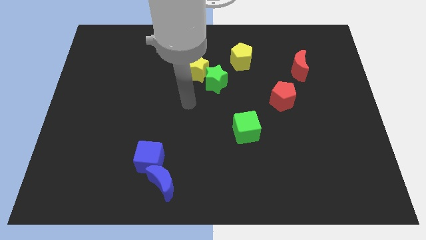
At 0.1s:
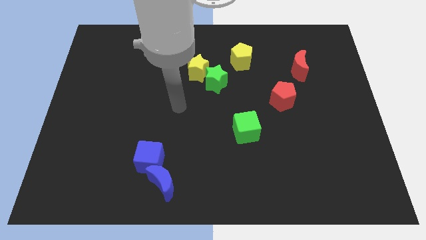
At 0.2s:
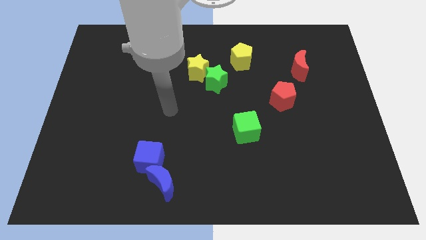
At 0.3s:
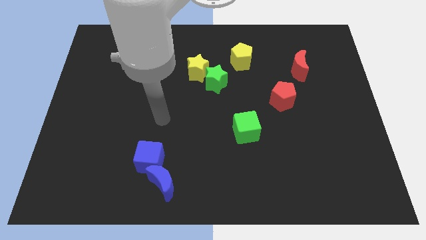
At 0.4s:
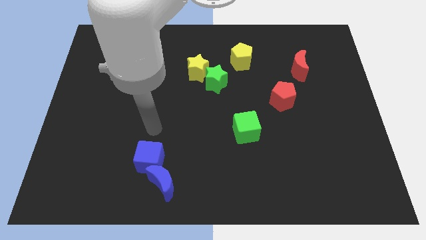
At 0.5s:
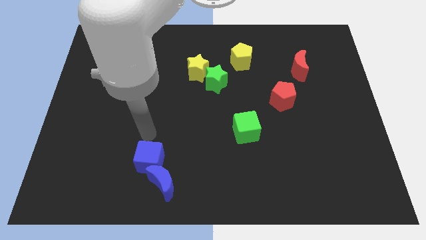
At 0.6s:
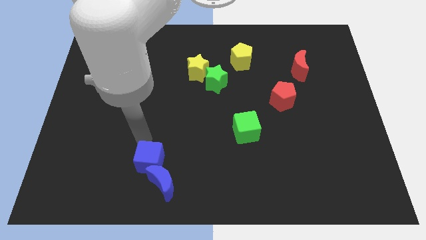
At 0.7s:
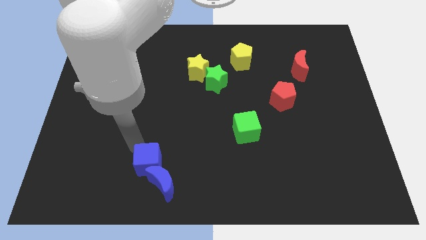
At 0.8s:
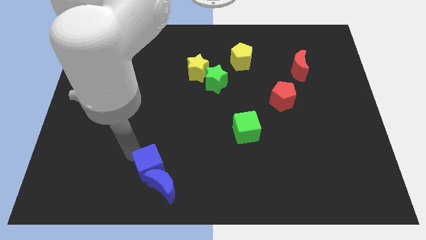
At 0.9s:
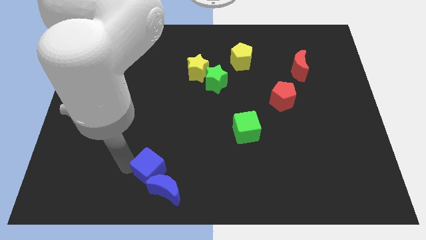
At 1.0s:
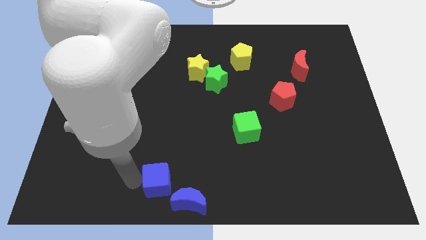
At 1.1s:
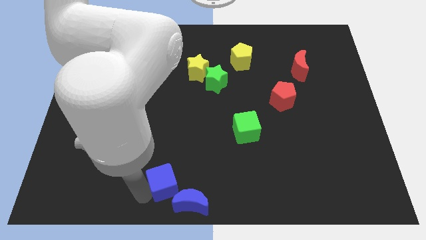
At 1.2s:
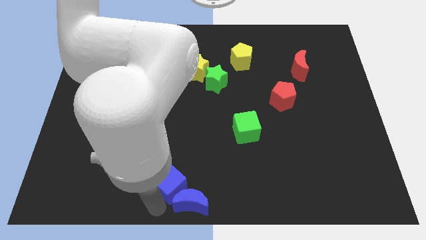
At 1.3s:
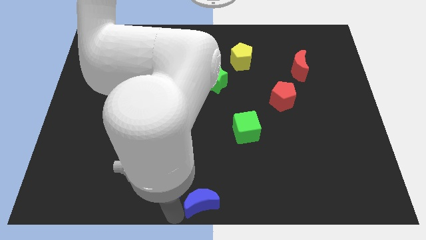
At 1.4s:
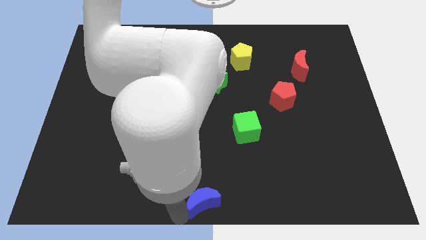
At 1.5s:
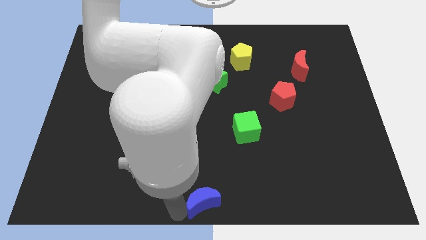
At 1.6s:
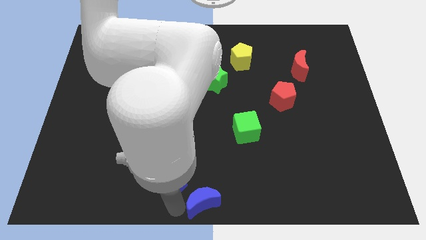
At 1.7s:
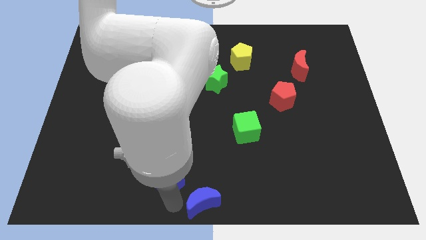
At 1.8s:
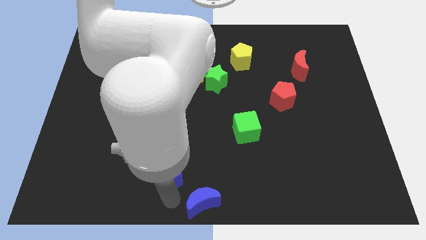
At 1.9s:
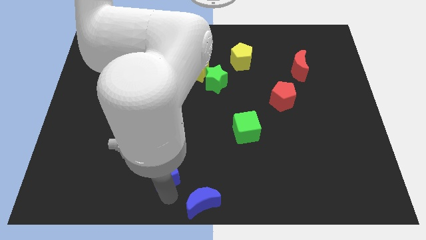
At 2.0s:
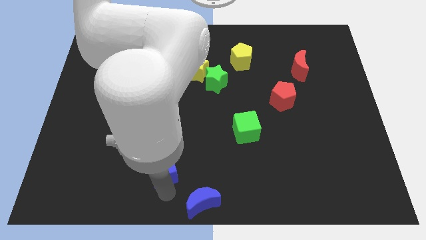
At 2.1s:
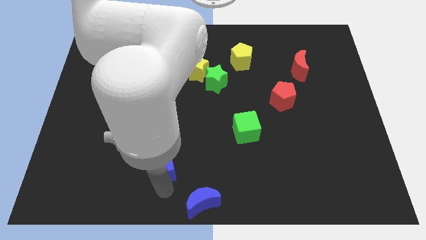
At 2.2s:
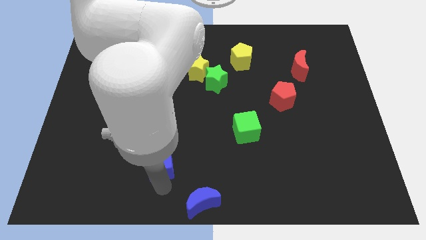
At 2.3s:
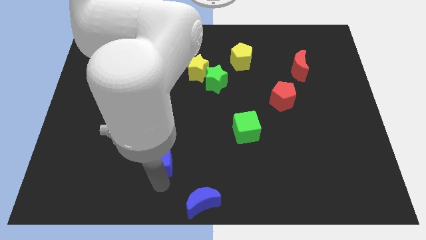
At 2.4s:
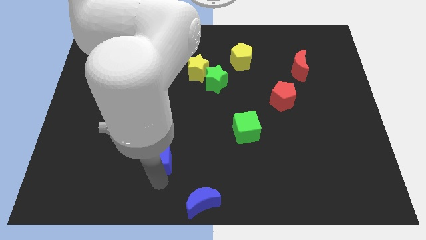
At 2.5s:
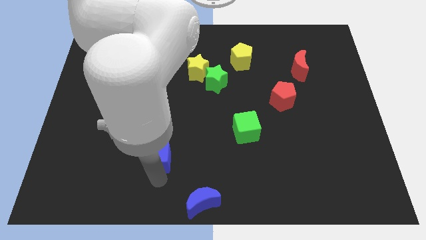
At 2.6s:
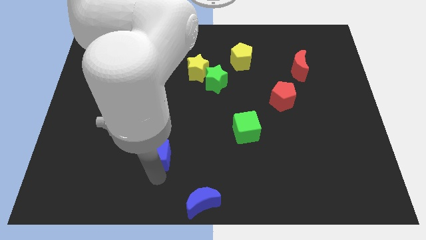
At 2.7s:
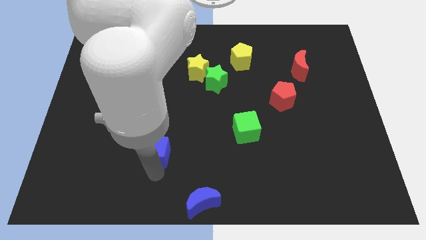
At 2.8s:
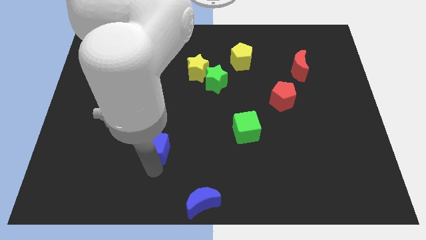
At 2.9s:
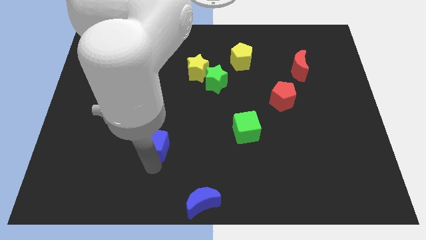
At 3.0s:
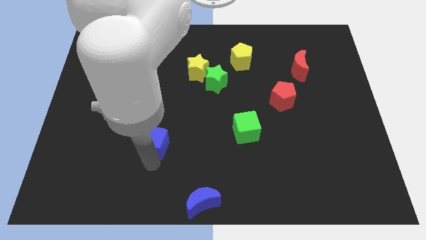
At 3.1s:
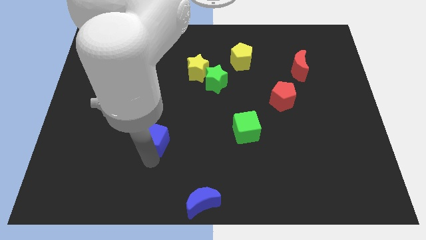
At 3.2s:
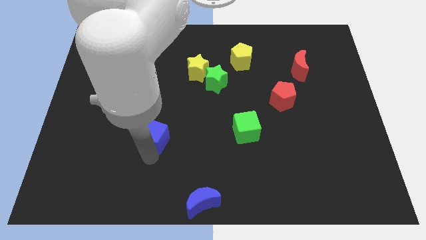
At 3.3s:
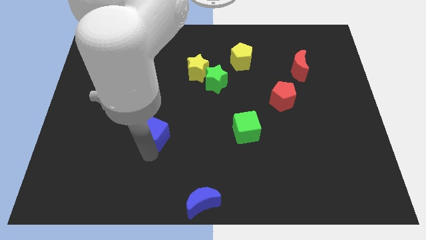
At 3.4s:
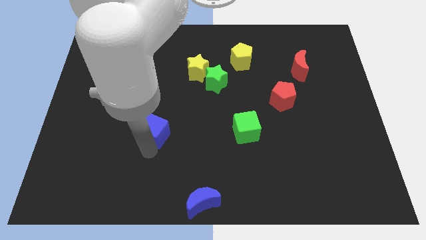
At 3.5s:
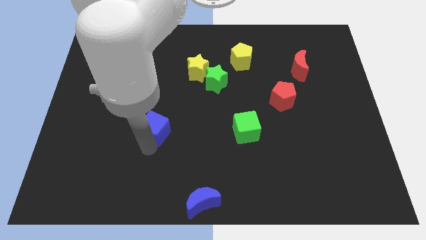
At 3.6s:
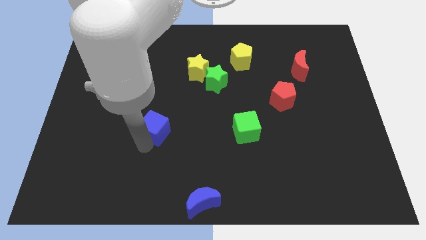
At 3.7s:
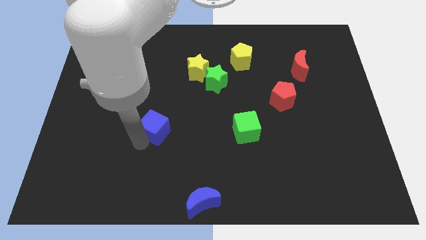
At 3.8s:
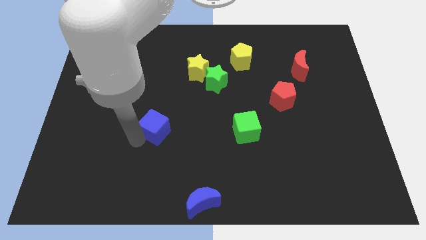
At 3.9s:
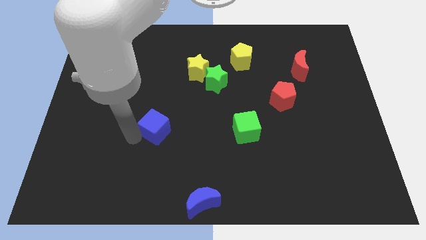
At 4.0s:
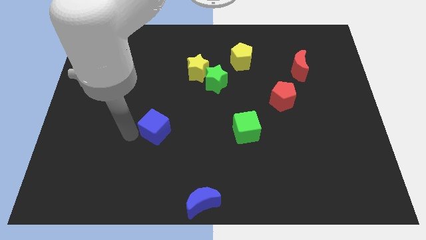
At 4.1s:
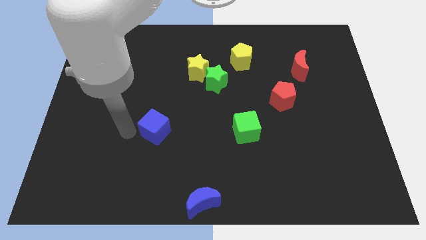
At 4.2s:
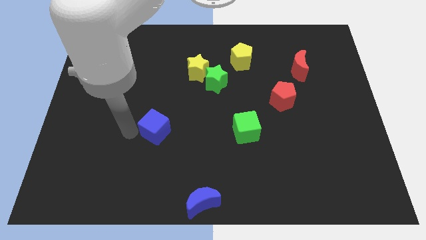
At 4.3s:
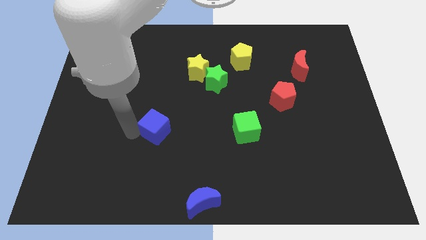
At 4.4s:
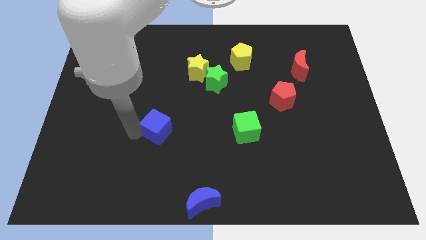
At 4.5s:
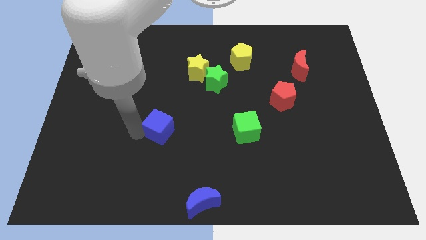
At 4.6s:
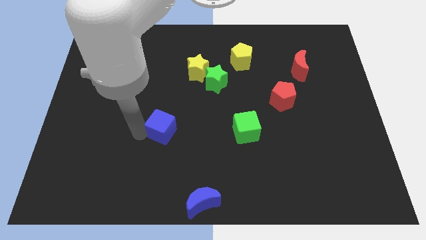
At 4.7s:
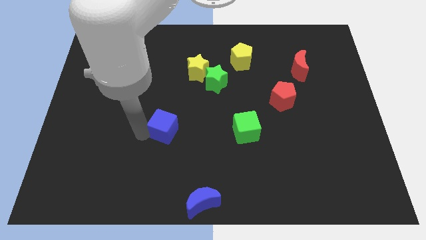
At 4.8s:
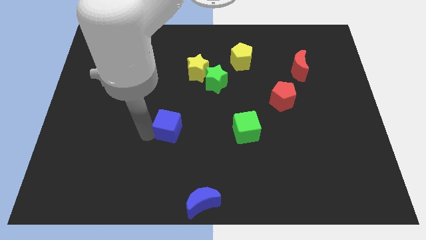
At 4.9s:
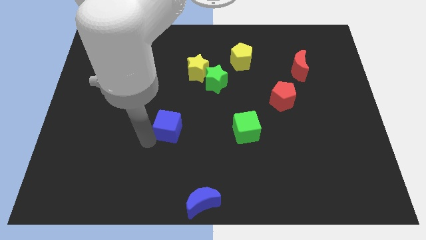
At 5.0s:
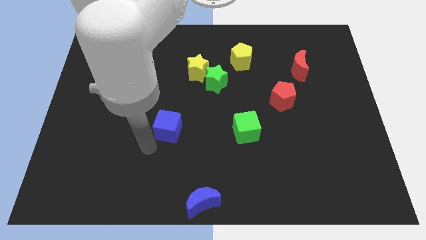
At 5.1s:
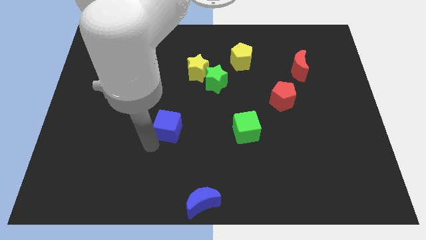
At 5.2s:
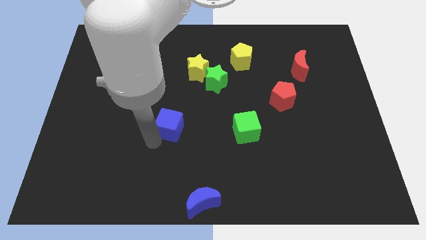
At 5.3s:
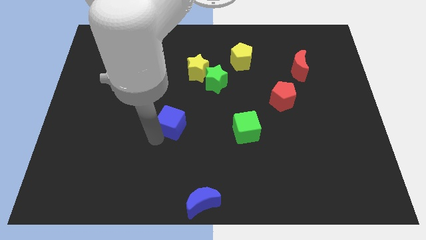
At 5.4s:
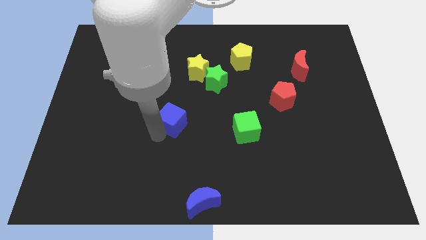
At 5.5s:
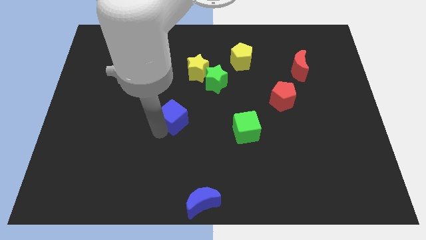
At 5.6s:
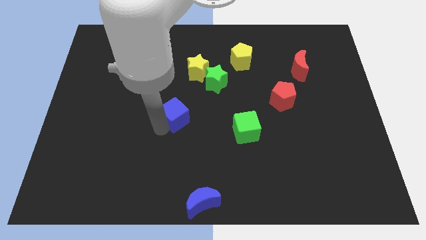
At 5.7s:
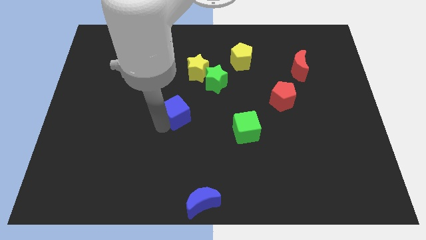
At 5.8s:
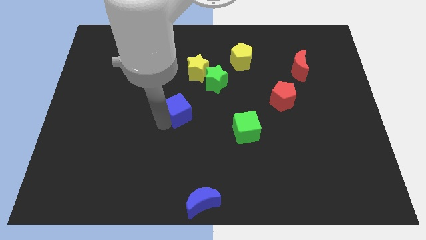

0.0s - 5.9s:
push the blue cube to the bottom of the yellow star

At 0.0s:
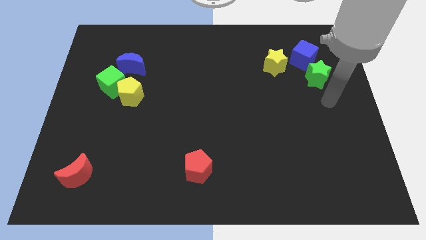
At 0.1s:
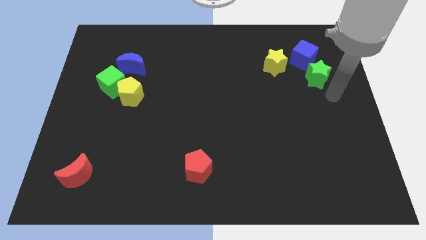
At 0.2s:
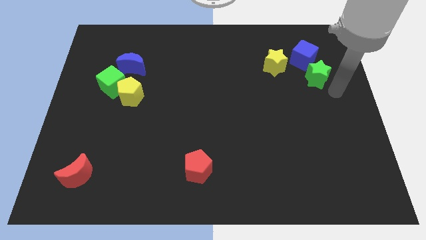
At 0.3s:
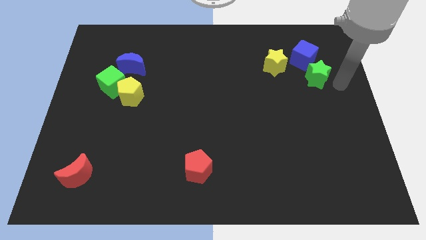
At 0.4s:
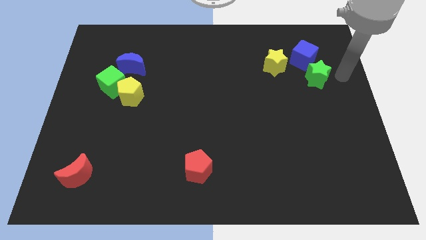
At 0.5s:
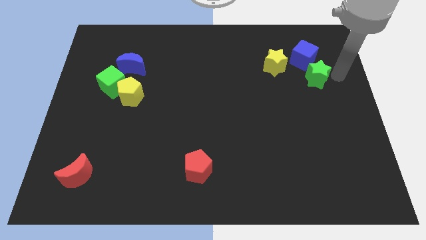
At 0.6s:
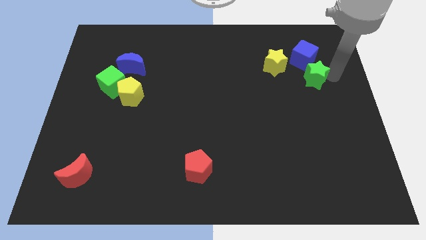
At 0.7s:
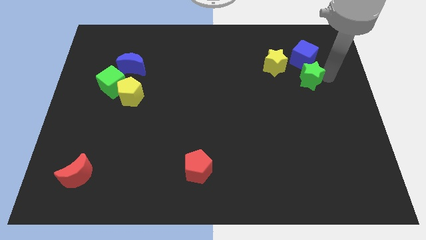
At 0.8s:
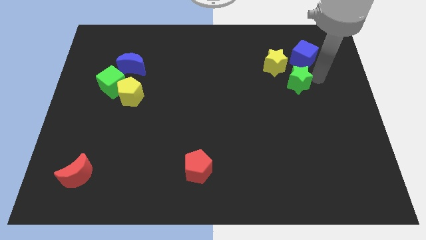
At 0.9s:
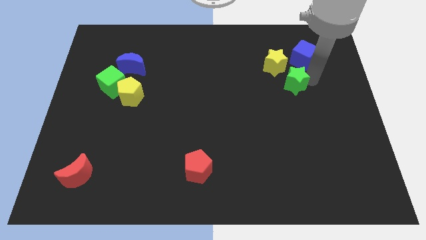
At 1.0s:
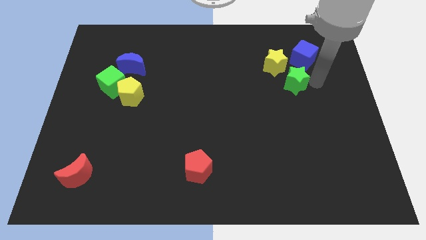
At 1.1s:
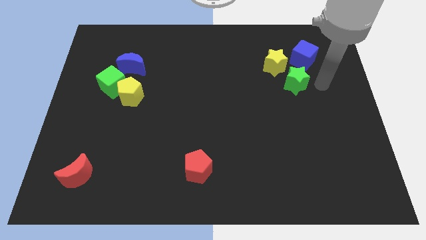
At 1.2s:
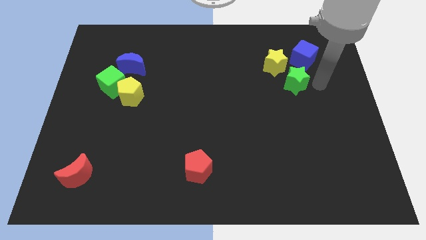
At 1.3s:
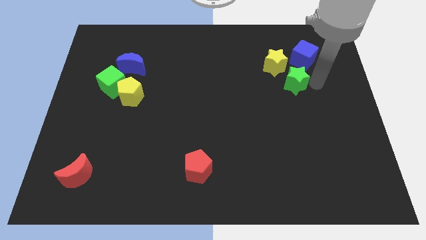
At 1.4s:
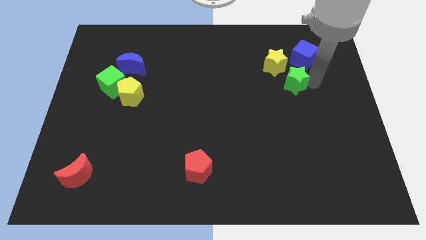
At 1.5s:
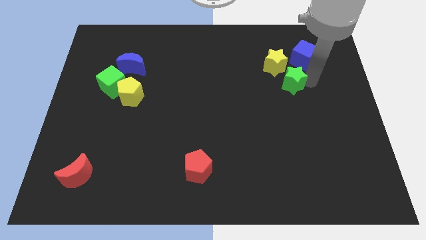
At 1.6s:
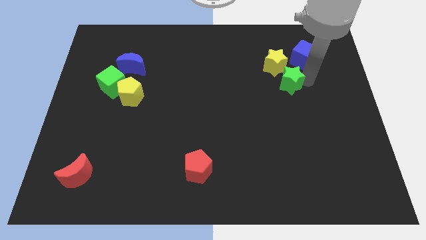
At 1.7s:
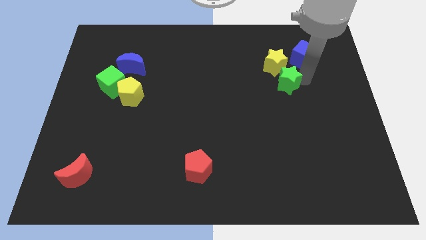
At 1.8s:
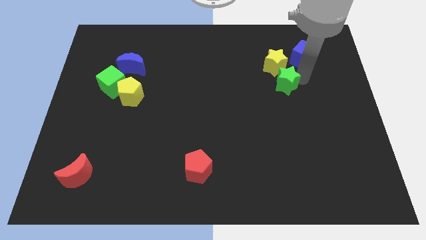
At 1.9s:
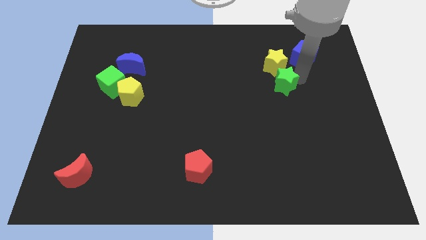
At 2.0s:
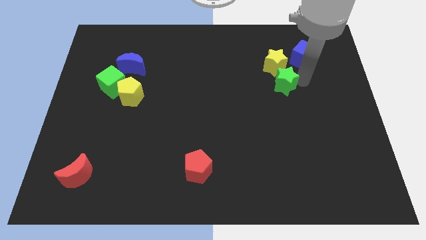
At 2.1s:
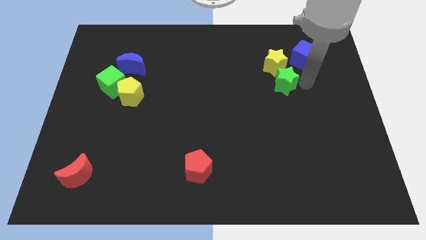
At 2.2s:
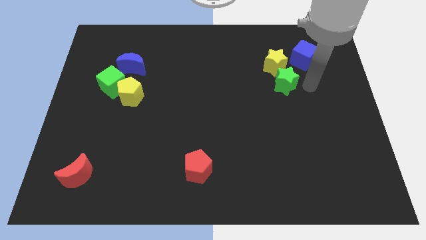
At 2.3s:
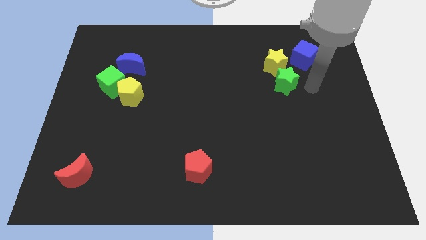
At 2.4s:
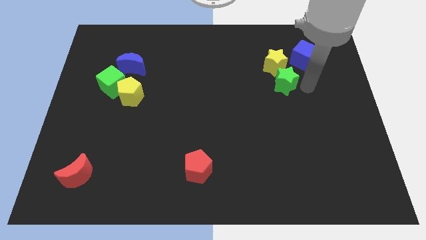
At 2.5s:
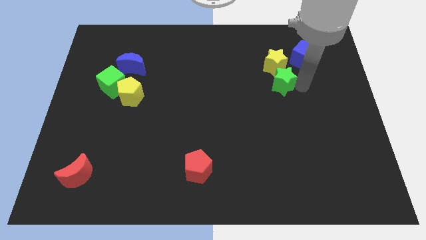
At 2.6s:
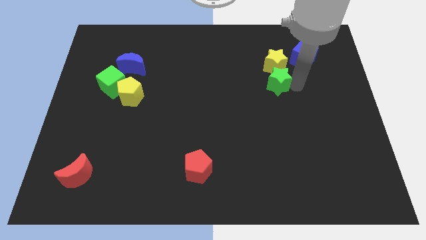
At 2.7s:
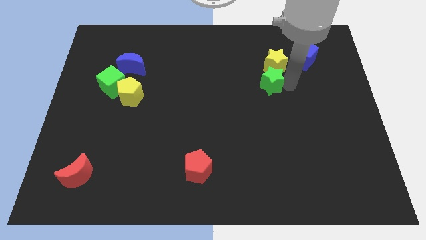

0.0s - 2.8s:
put the green star diagonally down and to the left of the yellow star
